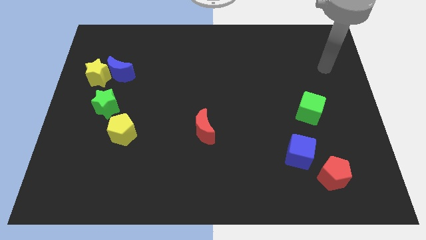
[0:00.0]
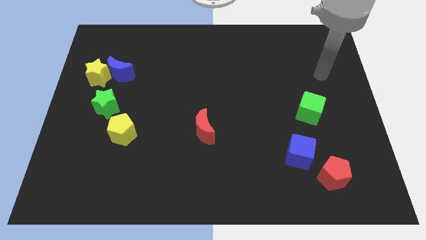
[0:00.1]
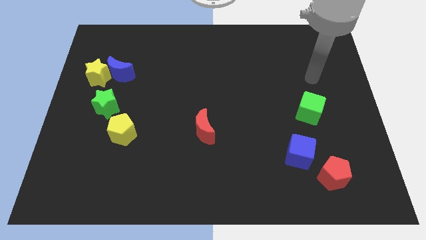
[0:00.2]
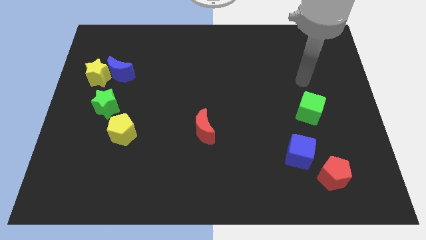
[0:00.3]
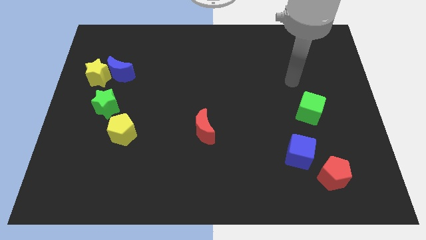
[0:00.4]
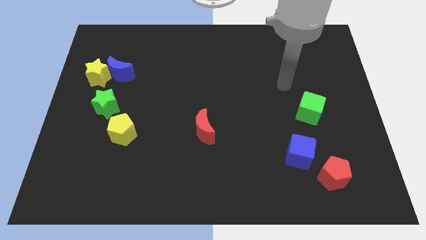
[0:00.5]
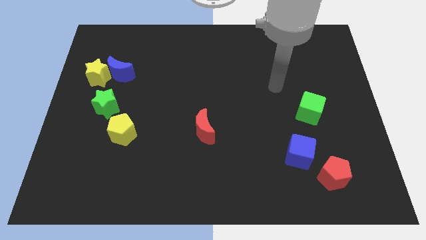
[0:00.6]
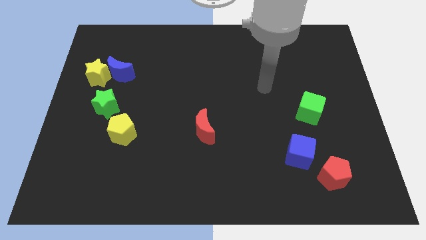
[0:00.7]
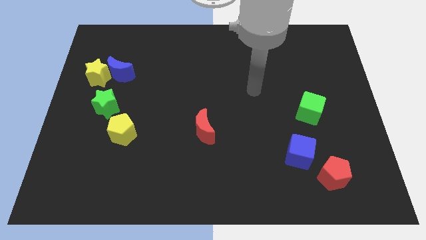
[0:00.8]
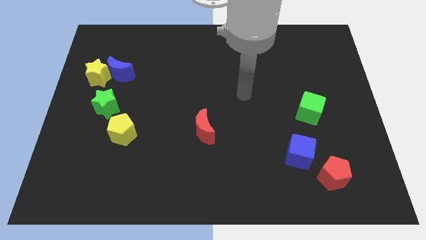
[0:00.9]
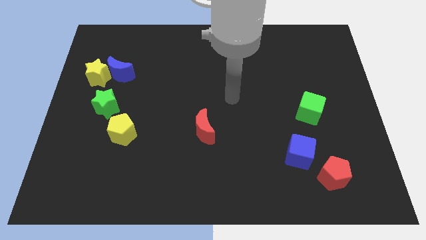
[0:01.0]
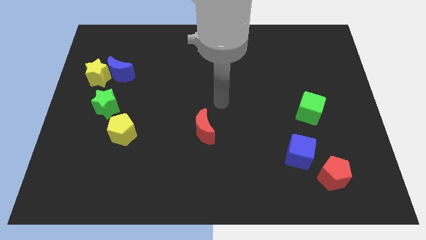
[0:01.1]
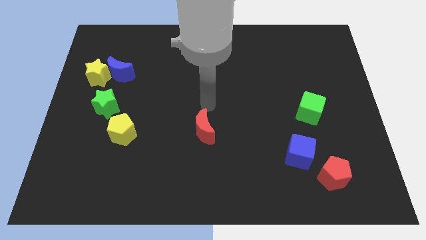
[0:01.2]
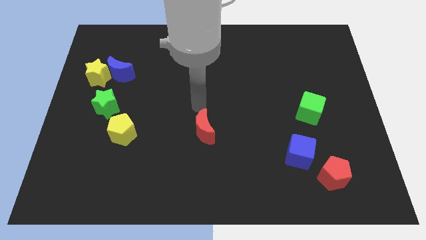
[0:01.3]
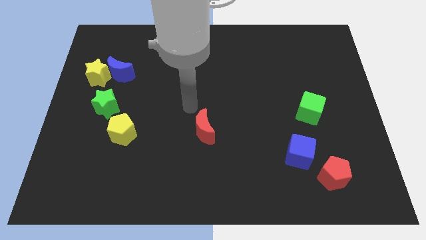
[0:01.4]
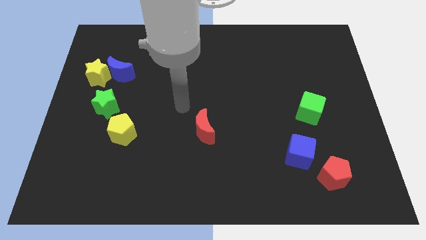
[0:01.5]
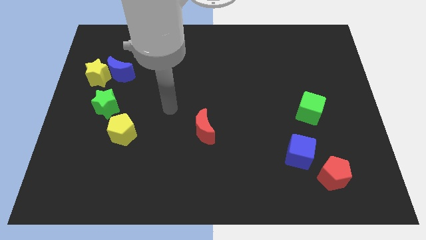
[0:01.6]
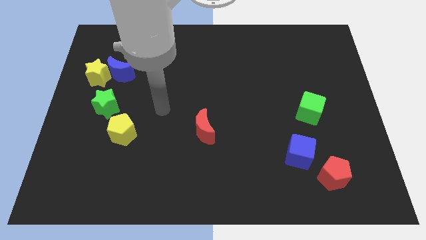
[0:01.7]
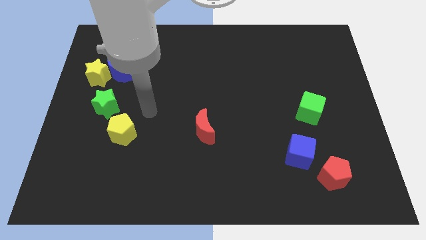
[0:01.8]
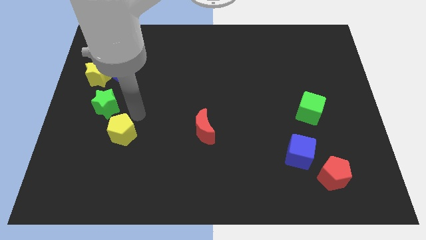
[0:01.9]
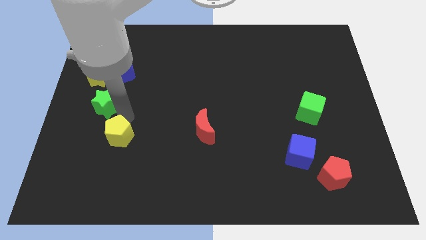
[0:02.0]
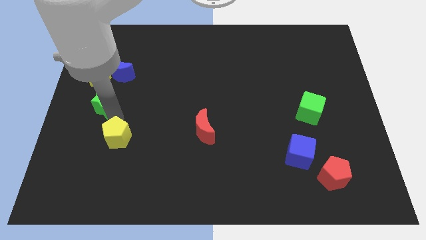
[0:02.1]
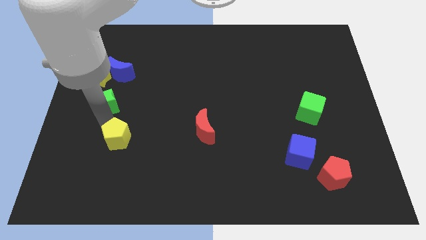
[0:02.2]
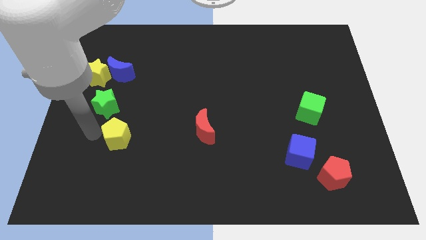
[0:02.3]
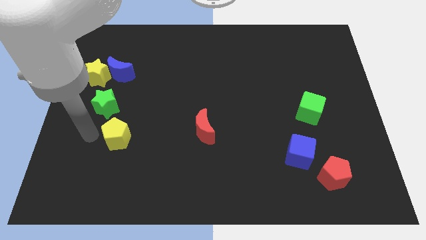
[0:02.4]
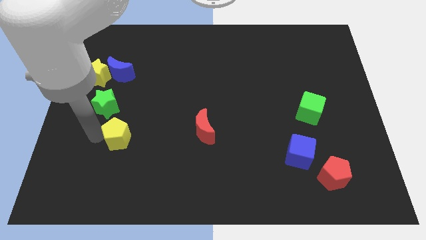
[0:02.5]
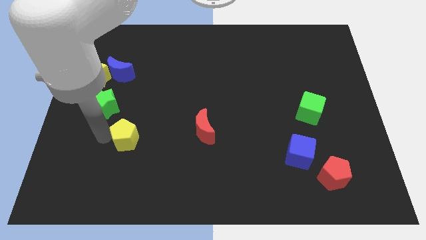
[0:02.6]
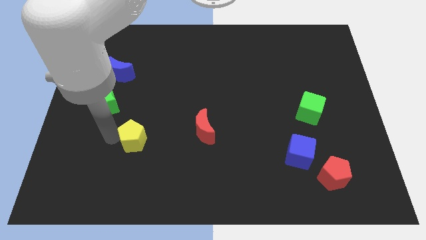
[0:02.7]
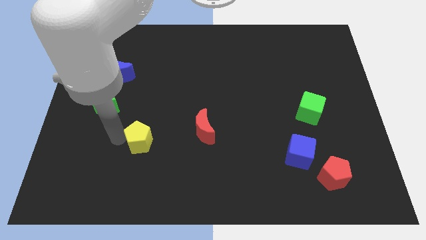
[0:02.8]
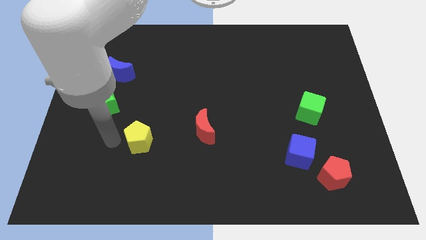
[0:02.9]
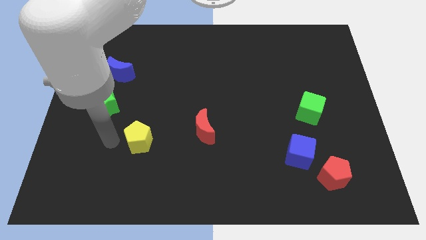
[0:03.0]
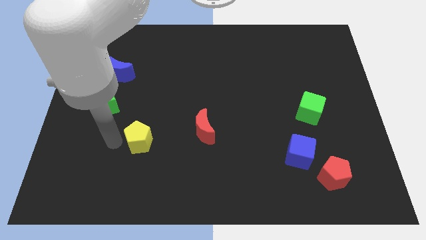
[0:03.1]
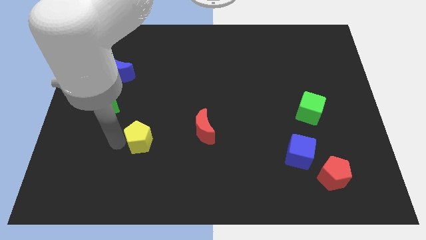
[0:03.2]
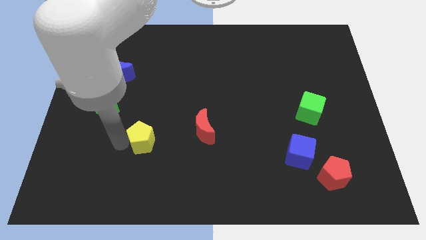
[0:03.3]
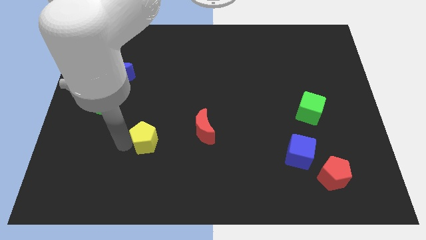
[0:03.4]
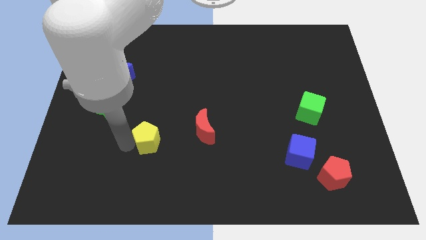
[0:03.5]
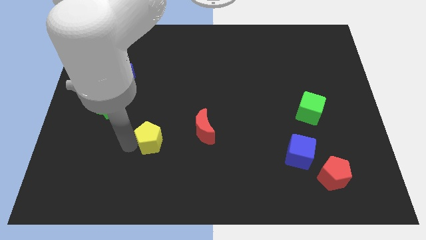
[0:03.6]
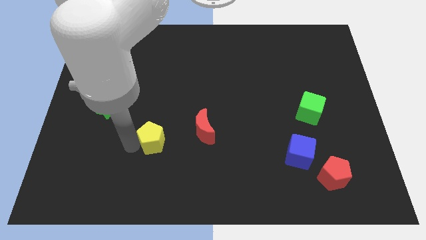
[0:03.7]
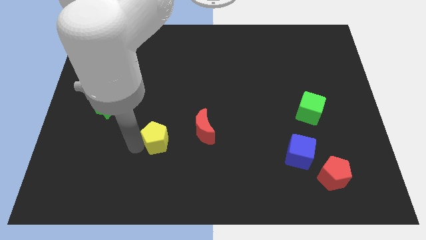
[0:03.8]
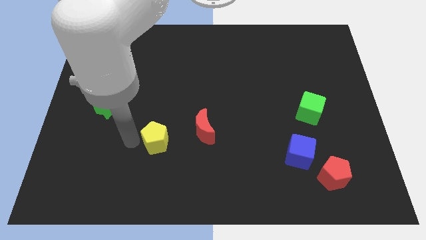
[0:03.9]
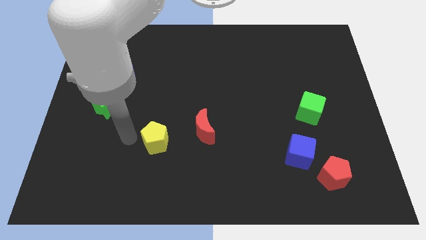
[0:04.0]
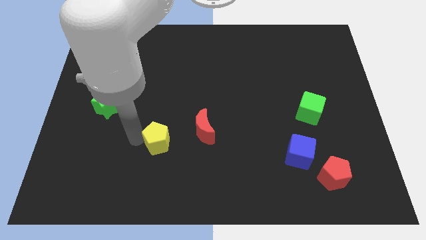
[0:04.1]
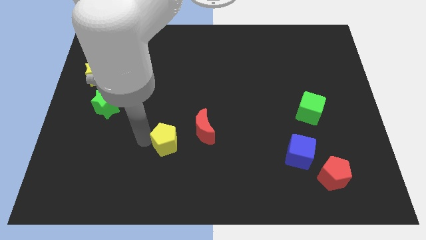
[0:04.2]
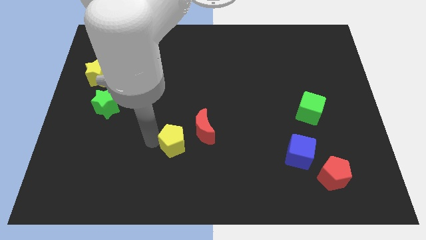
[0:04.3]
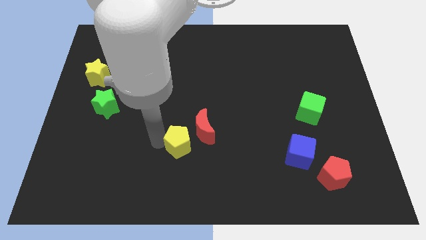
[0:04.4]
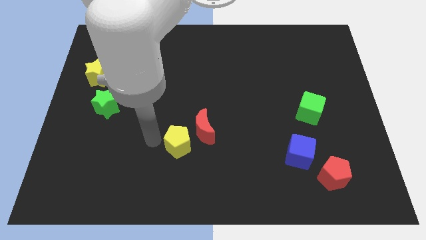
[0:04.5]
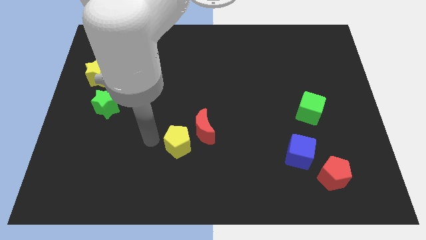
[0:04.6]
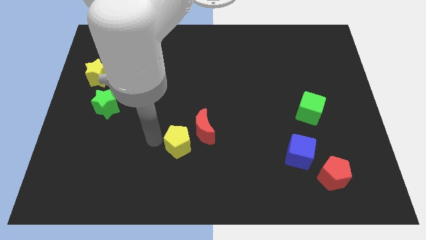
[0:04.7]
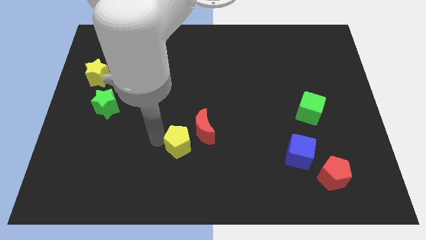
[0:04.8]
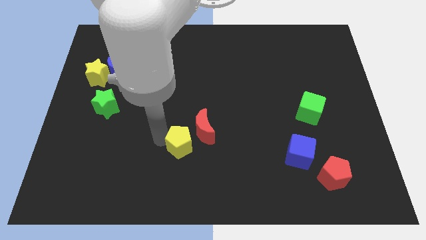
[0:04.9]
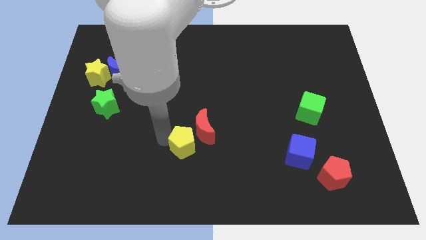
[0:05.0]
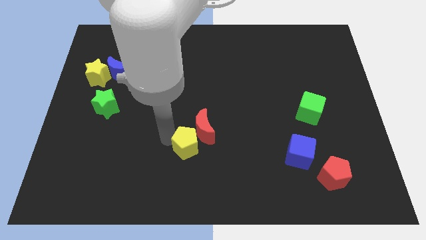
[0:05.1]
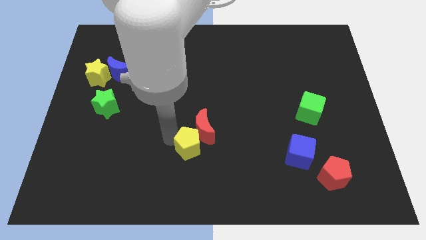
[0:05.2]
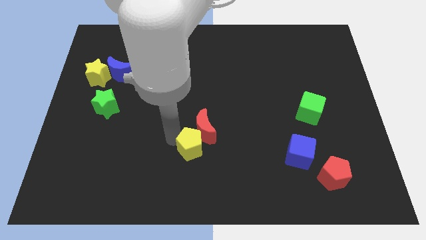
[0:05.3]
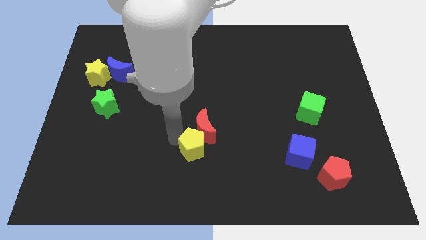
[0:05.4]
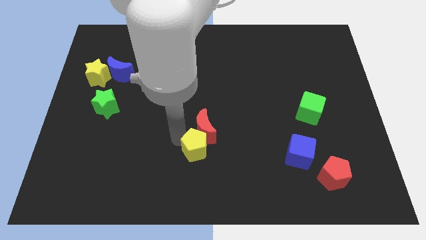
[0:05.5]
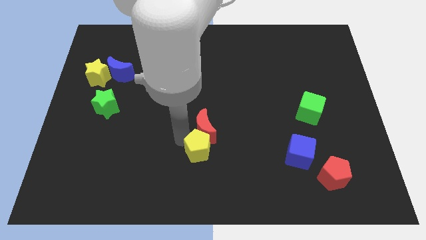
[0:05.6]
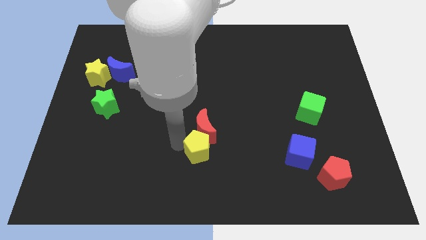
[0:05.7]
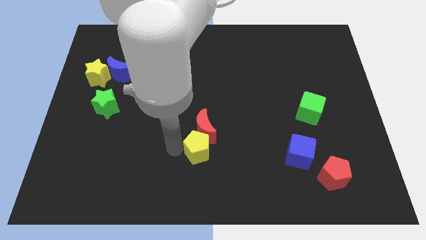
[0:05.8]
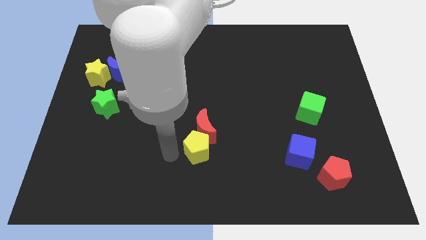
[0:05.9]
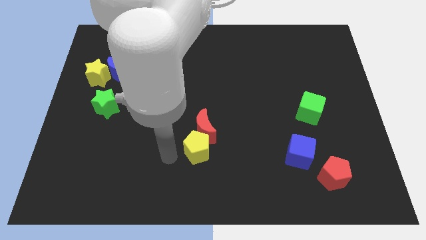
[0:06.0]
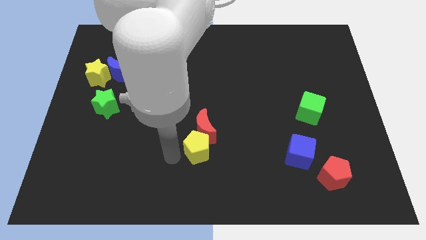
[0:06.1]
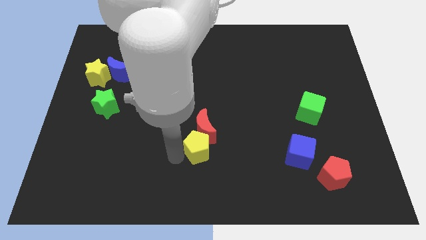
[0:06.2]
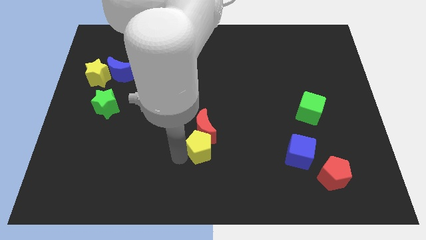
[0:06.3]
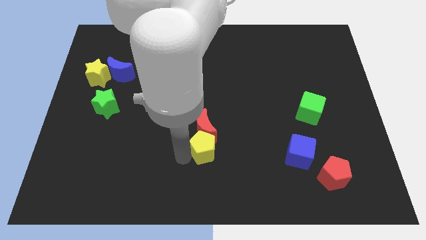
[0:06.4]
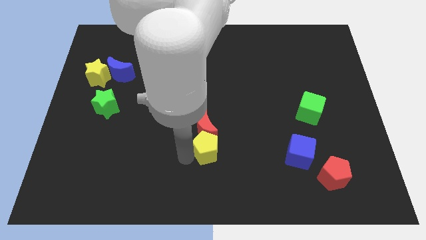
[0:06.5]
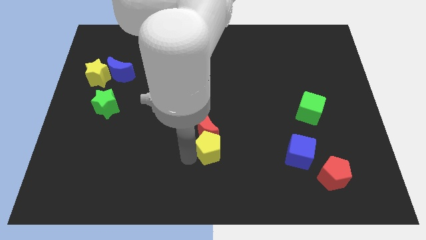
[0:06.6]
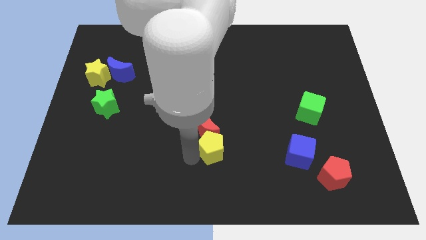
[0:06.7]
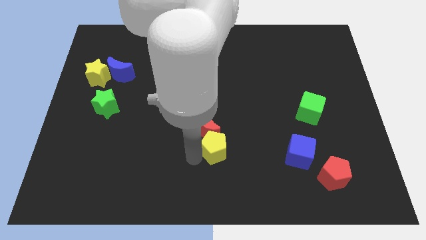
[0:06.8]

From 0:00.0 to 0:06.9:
move the yellow pentagon to the right

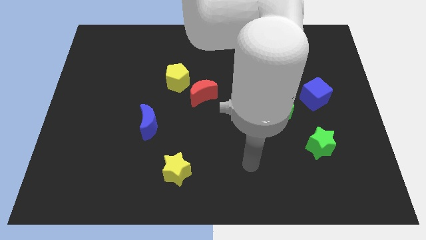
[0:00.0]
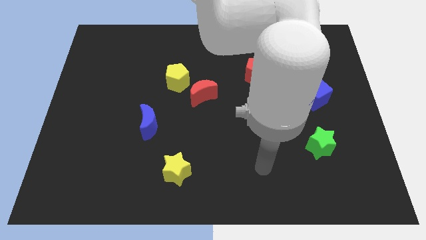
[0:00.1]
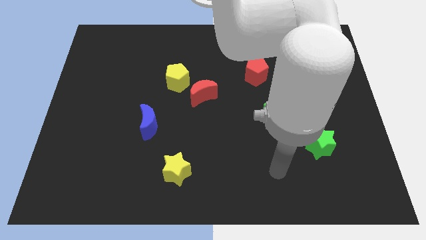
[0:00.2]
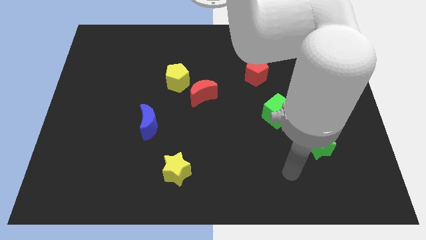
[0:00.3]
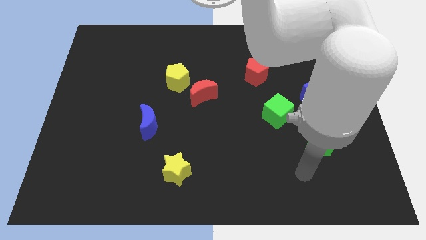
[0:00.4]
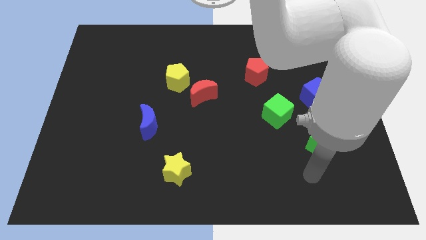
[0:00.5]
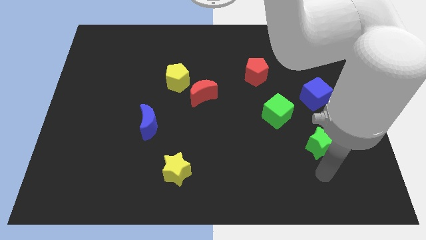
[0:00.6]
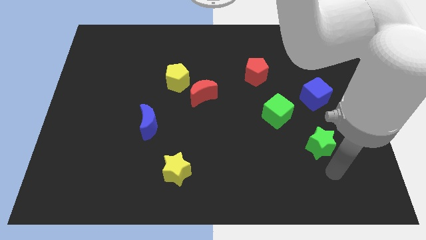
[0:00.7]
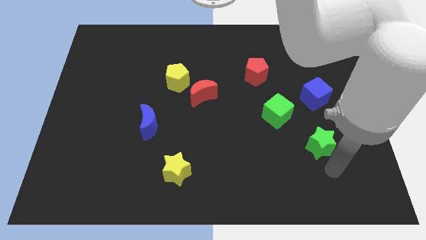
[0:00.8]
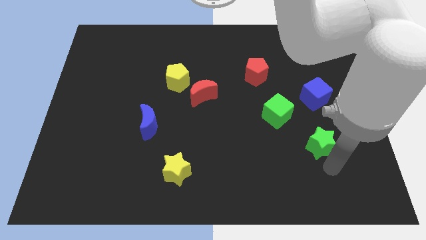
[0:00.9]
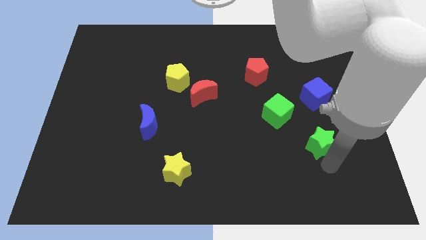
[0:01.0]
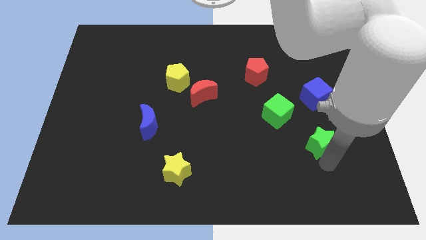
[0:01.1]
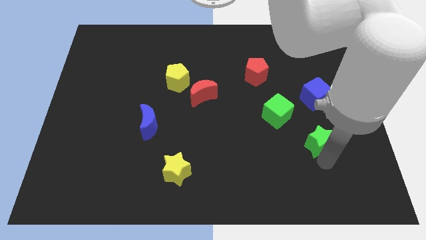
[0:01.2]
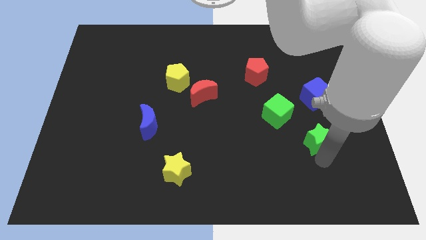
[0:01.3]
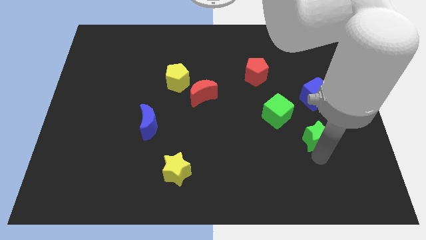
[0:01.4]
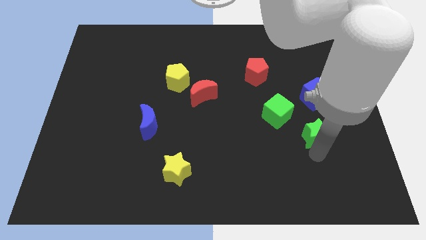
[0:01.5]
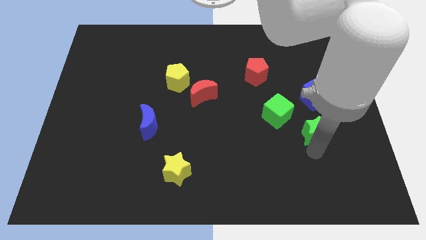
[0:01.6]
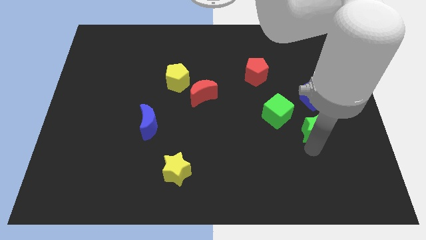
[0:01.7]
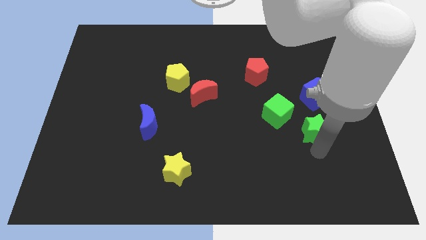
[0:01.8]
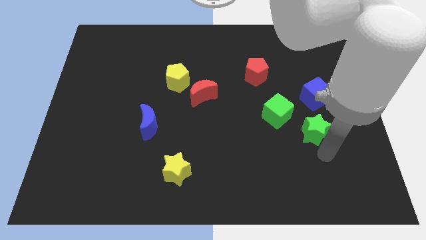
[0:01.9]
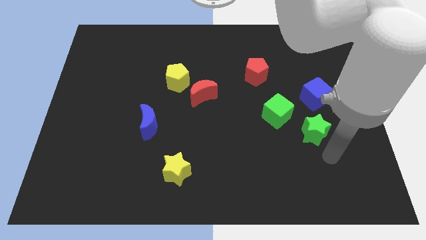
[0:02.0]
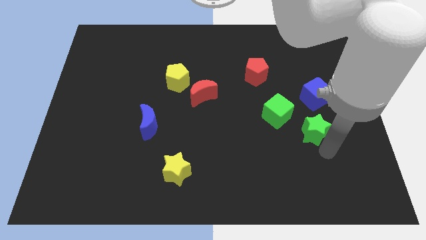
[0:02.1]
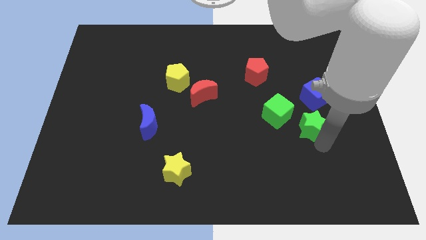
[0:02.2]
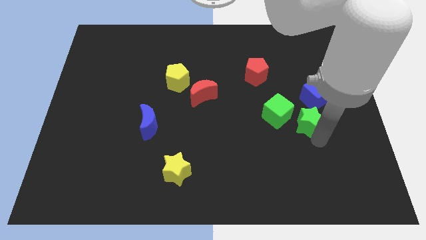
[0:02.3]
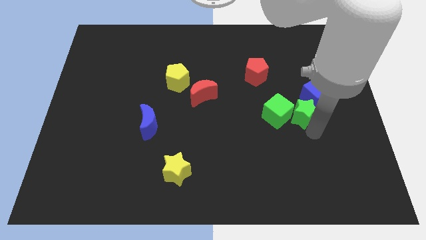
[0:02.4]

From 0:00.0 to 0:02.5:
slide the green star a little bit upwards and then to the left
